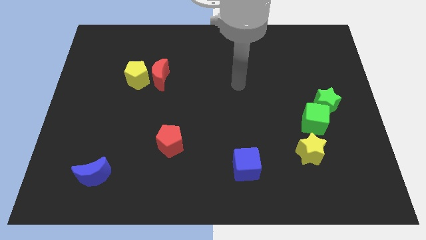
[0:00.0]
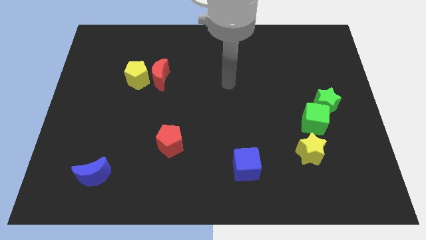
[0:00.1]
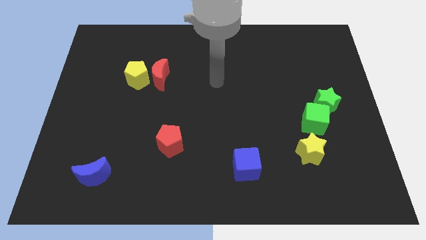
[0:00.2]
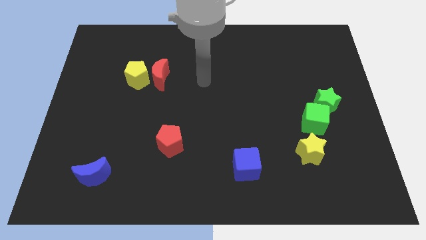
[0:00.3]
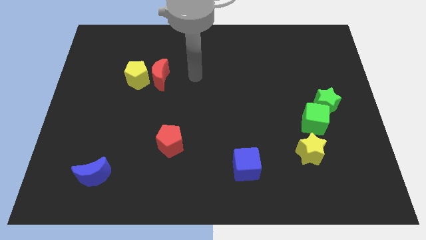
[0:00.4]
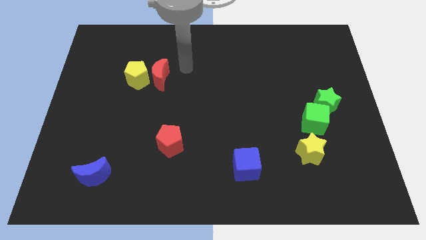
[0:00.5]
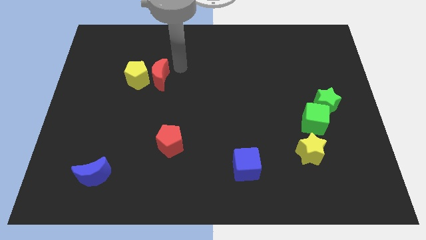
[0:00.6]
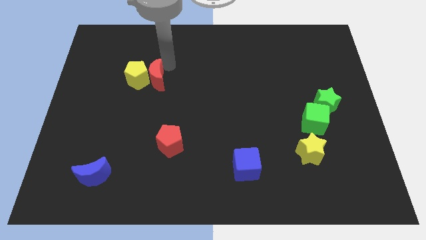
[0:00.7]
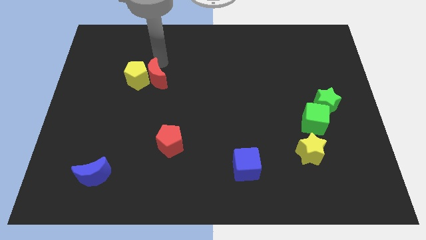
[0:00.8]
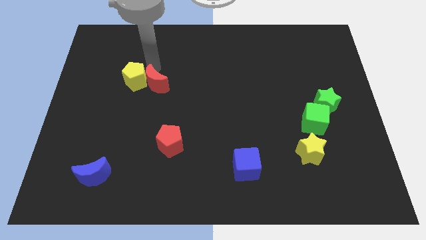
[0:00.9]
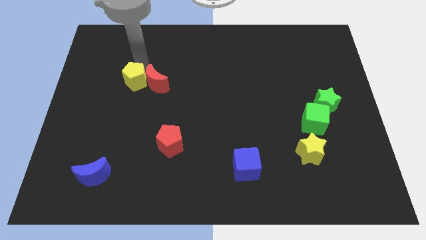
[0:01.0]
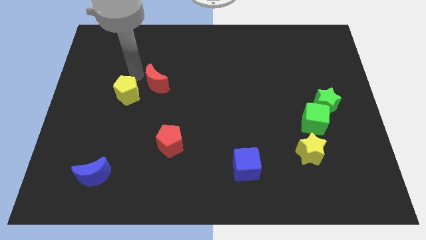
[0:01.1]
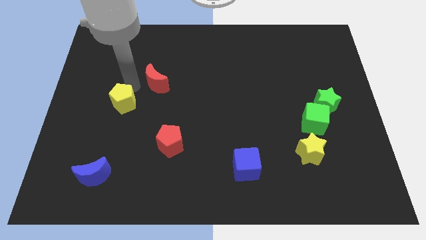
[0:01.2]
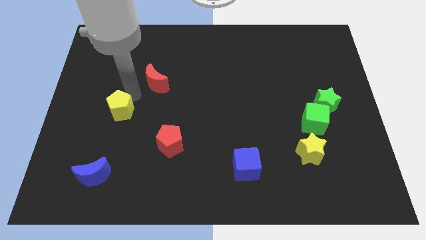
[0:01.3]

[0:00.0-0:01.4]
pull the red moon apart from the yellow pentagon

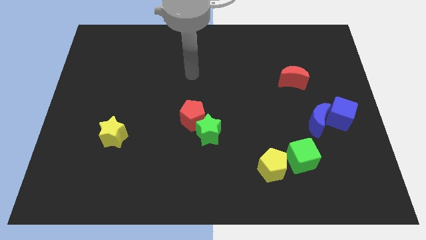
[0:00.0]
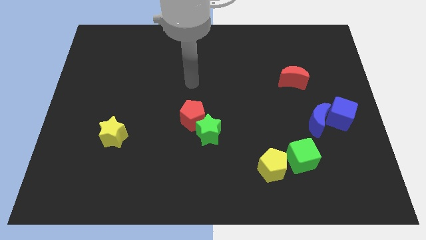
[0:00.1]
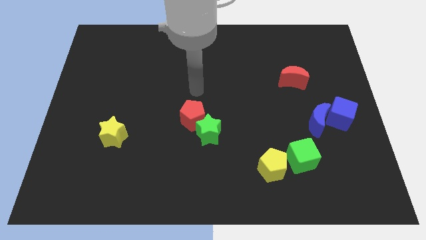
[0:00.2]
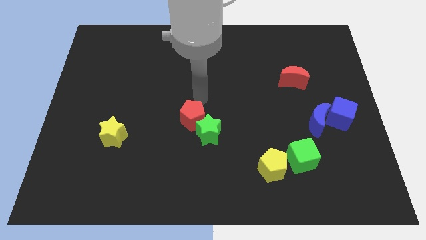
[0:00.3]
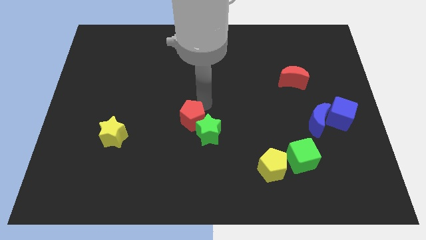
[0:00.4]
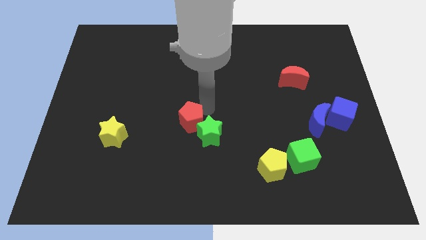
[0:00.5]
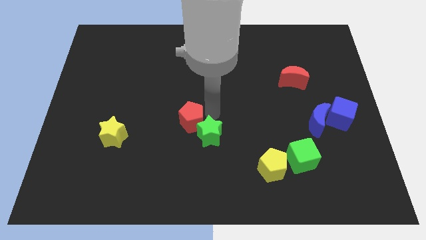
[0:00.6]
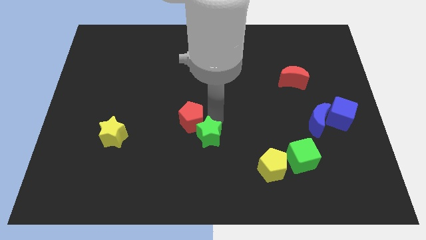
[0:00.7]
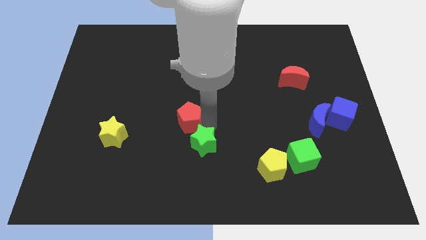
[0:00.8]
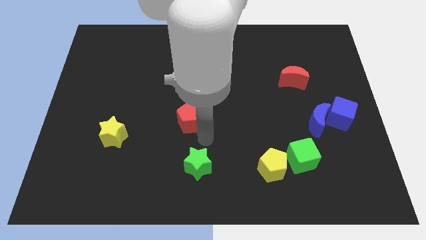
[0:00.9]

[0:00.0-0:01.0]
pull the red pentagon apart from the green star

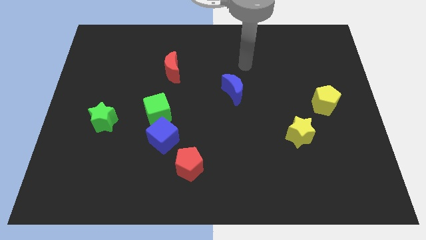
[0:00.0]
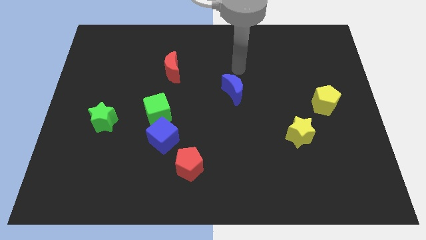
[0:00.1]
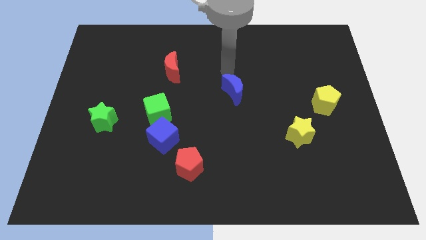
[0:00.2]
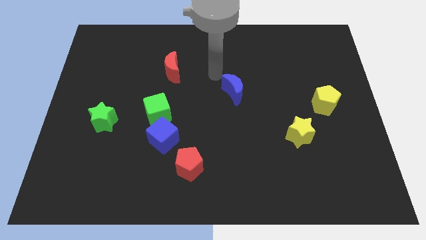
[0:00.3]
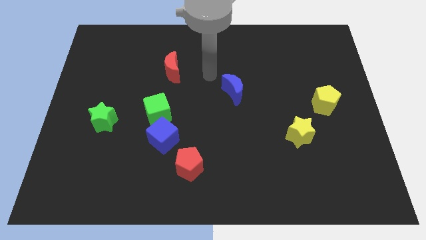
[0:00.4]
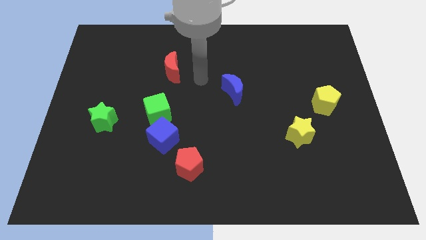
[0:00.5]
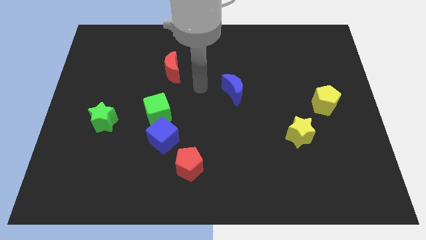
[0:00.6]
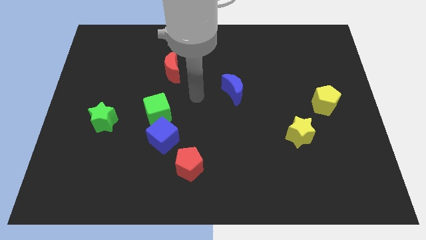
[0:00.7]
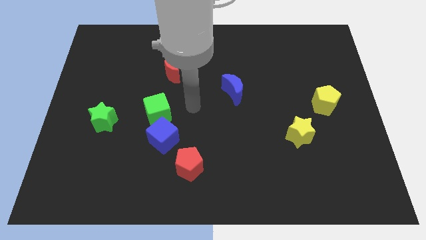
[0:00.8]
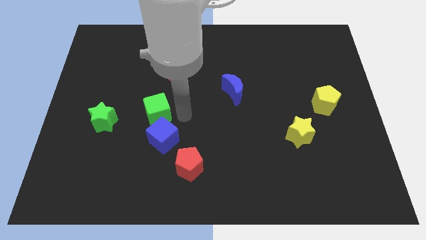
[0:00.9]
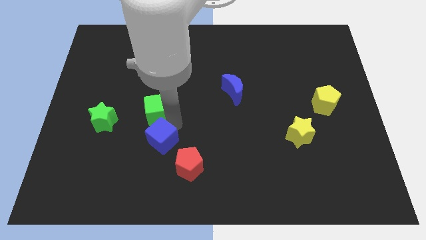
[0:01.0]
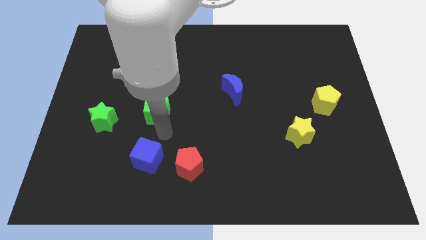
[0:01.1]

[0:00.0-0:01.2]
pull the green cube apart from the blue cube

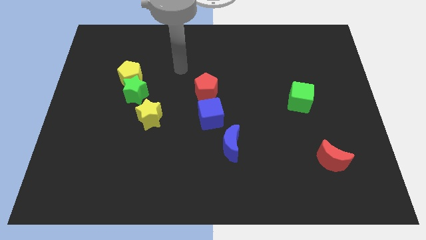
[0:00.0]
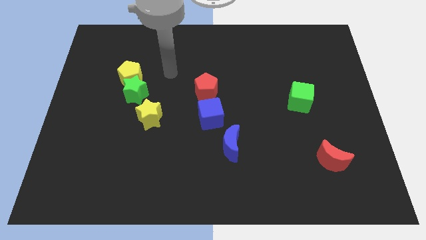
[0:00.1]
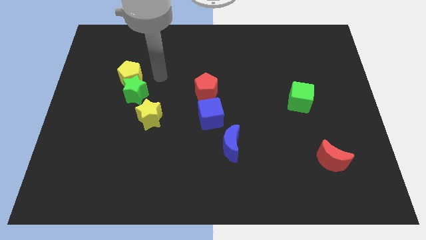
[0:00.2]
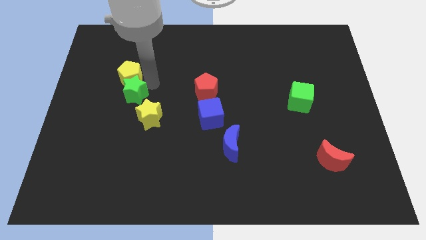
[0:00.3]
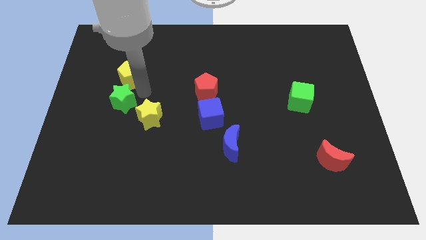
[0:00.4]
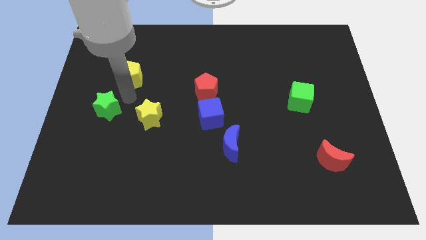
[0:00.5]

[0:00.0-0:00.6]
pull the yellow pentagon apart from the green star

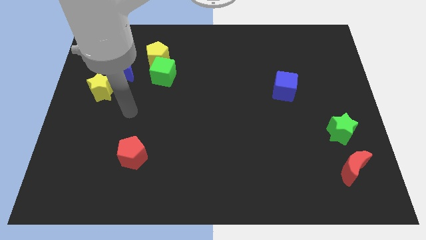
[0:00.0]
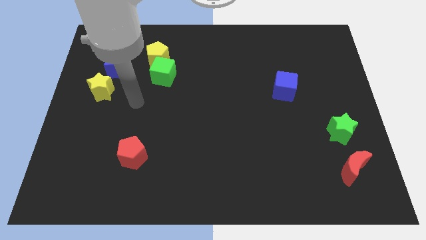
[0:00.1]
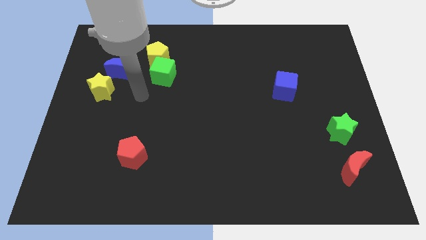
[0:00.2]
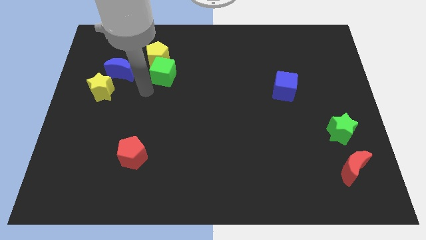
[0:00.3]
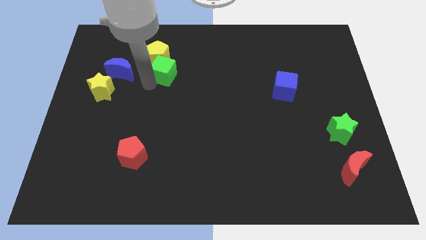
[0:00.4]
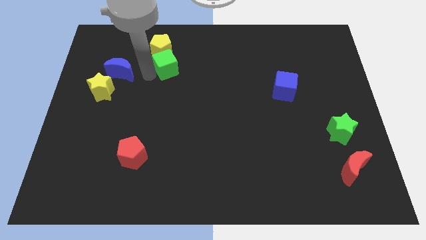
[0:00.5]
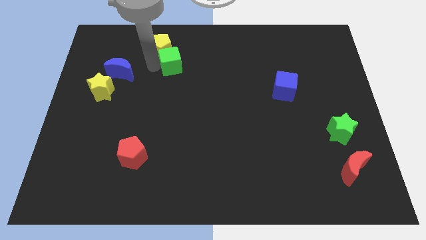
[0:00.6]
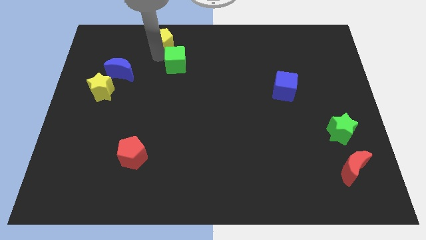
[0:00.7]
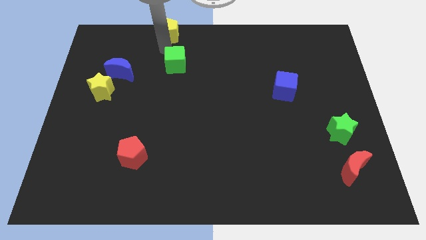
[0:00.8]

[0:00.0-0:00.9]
separate the green cube from the yellow pentagon

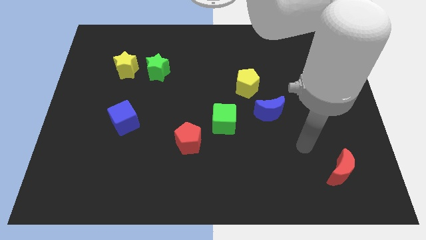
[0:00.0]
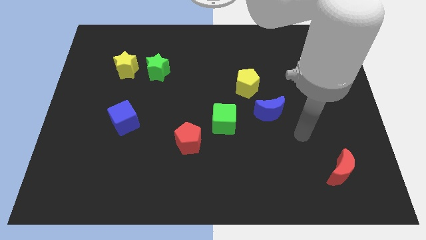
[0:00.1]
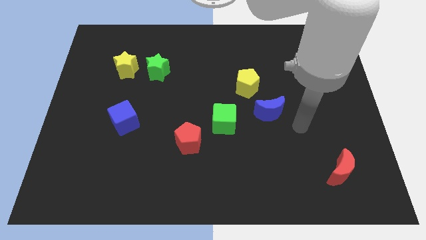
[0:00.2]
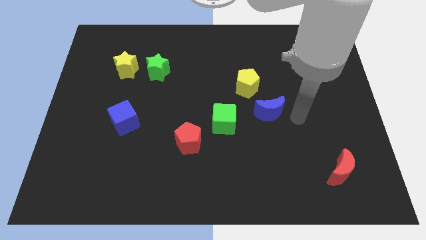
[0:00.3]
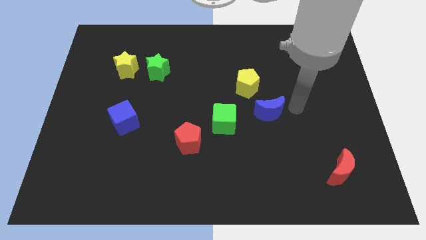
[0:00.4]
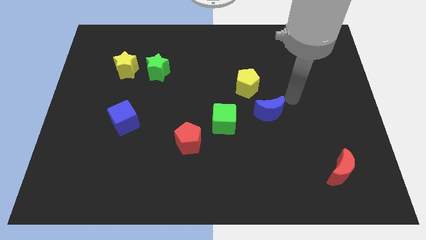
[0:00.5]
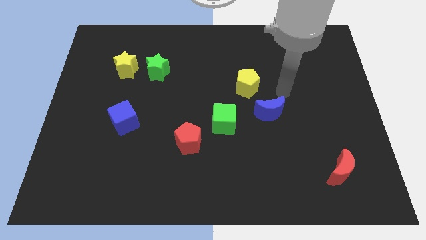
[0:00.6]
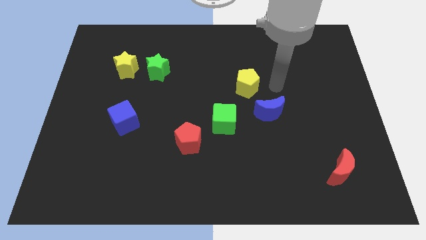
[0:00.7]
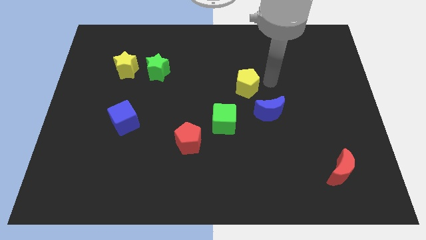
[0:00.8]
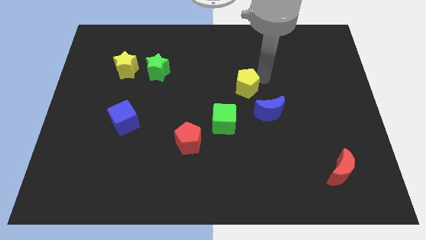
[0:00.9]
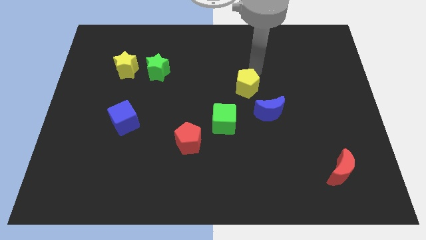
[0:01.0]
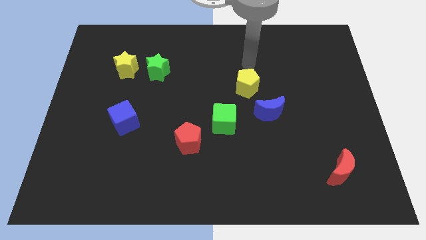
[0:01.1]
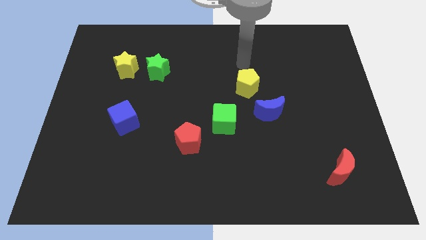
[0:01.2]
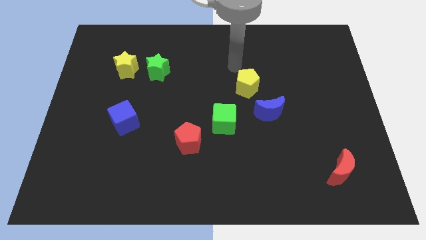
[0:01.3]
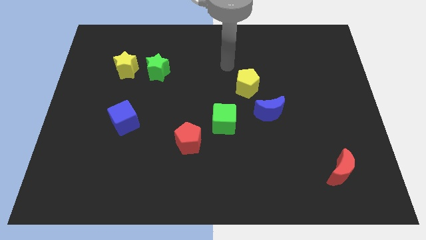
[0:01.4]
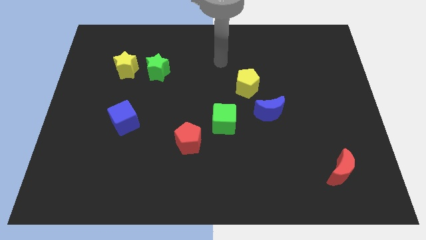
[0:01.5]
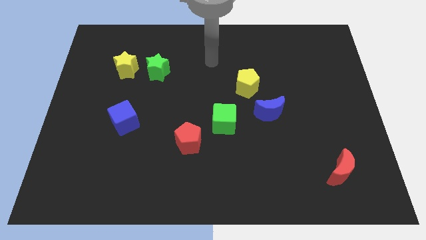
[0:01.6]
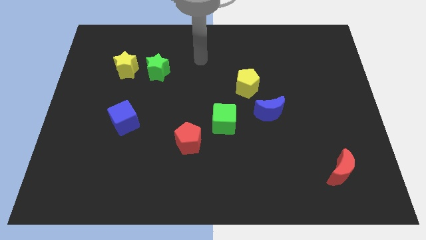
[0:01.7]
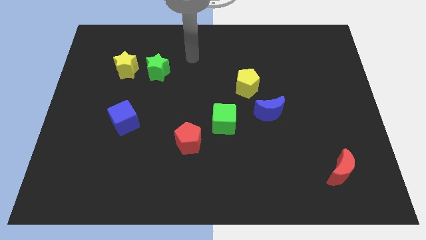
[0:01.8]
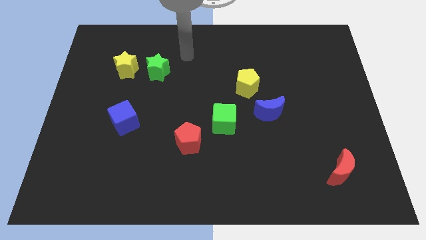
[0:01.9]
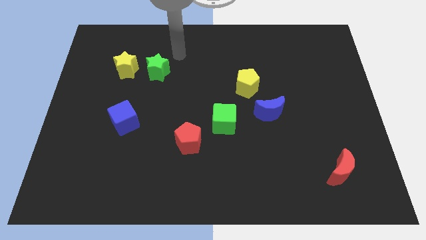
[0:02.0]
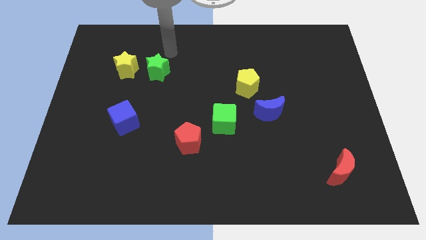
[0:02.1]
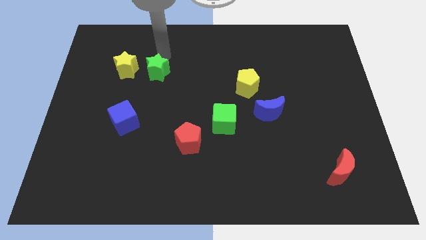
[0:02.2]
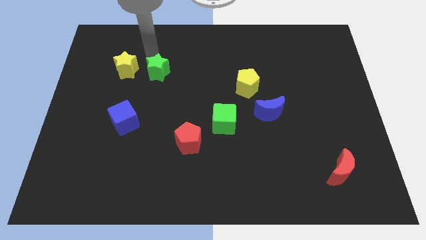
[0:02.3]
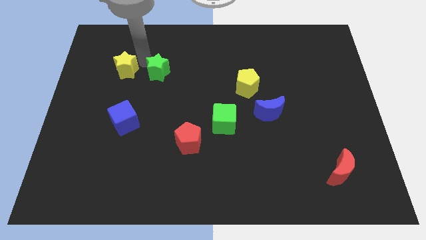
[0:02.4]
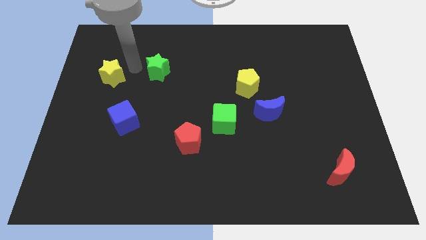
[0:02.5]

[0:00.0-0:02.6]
separate the green star from the yellow star

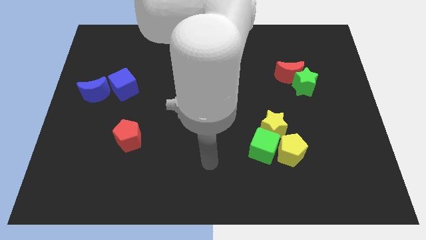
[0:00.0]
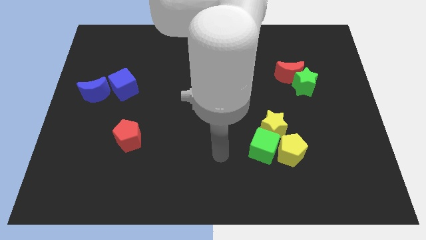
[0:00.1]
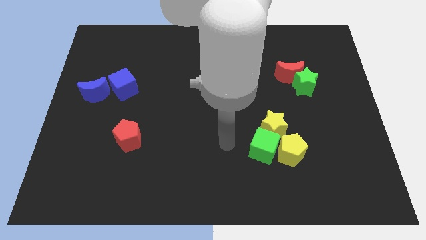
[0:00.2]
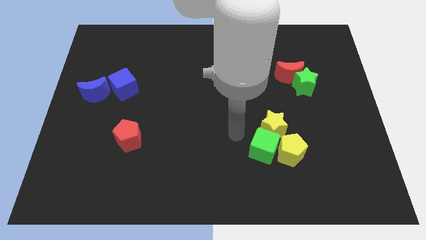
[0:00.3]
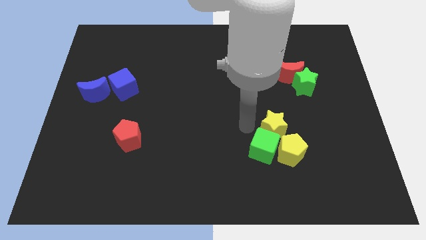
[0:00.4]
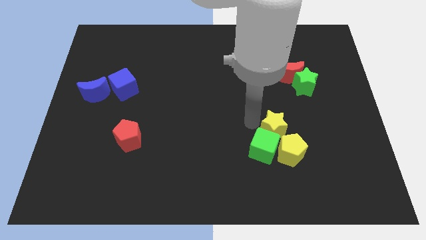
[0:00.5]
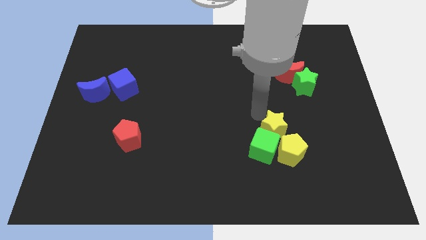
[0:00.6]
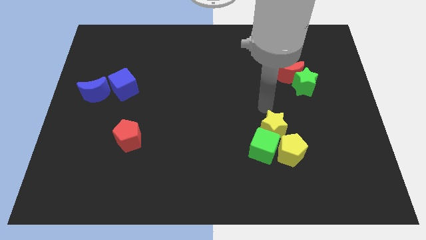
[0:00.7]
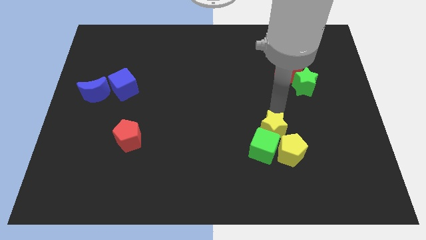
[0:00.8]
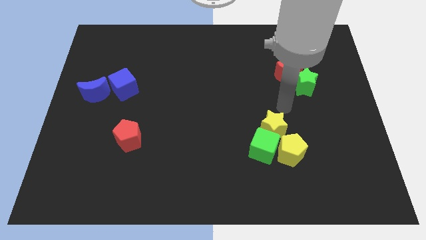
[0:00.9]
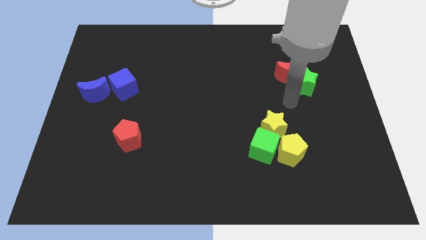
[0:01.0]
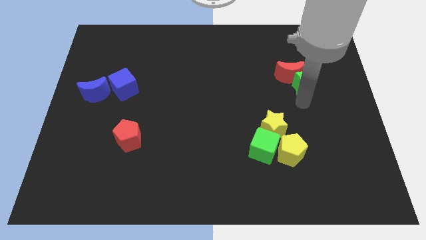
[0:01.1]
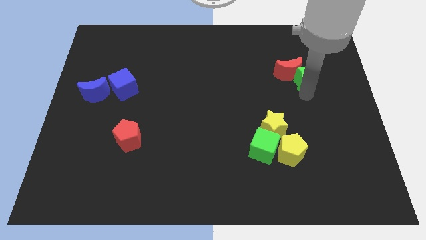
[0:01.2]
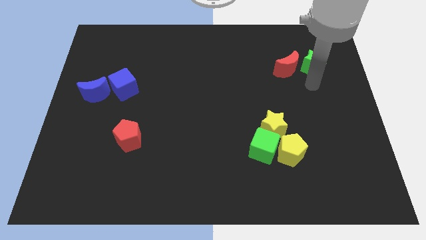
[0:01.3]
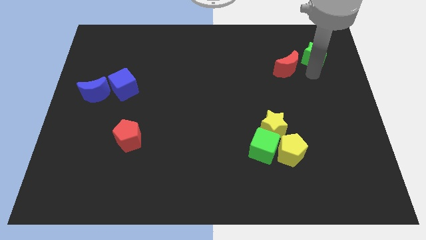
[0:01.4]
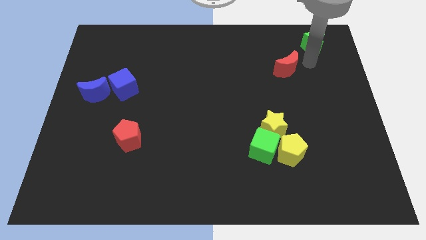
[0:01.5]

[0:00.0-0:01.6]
move the red moon away from the green star
